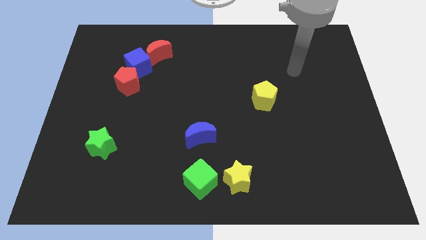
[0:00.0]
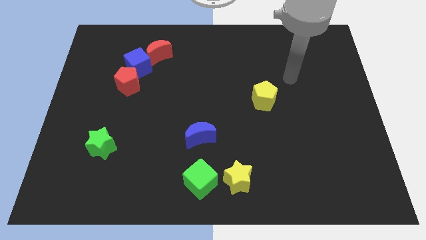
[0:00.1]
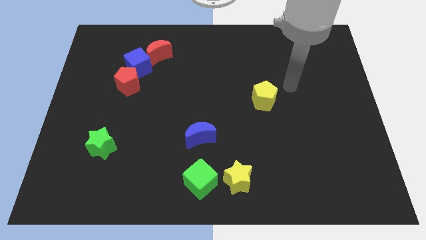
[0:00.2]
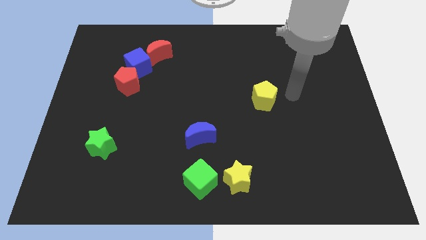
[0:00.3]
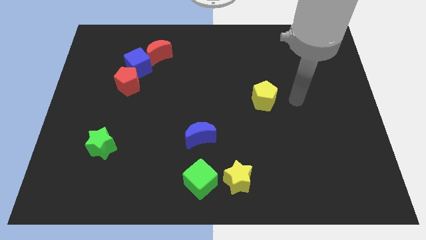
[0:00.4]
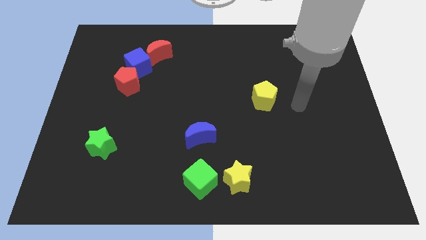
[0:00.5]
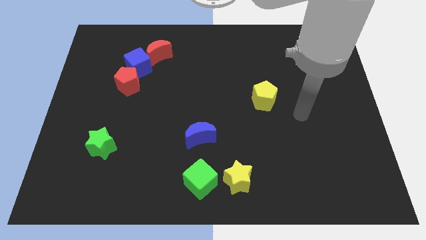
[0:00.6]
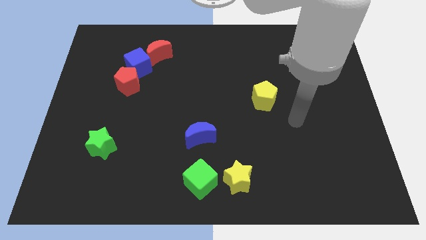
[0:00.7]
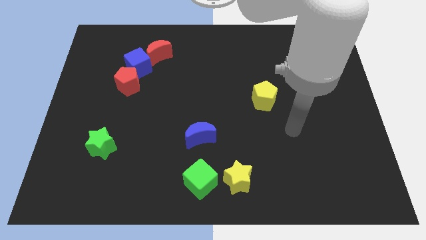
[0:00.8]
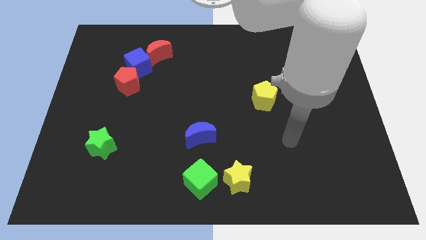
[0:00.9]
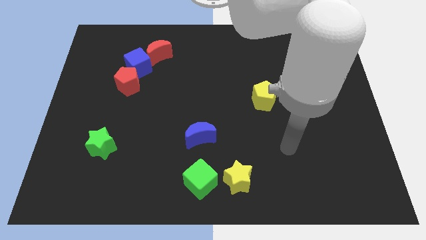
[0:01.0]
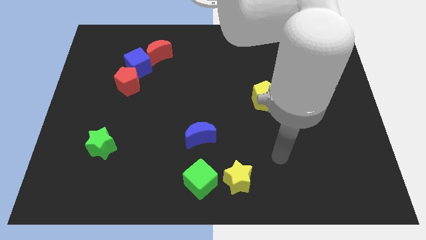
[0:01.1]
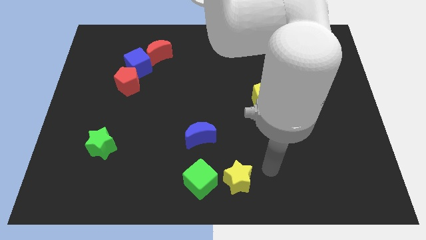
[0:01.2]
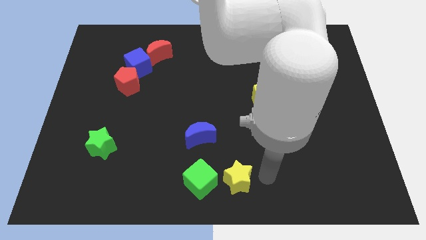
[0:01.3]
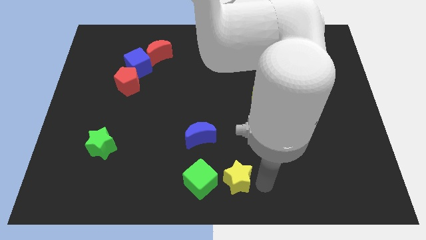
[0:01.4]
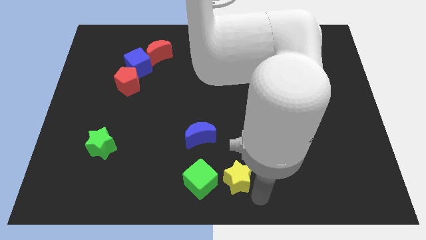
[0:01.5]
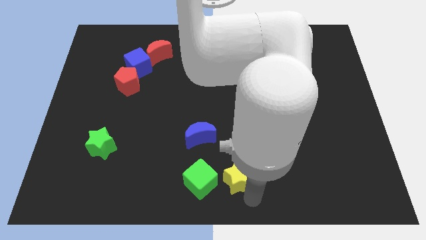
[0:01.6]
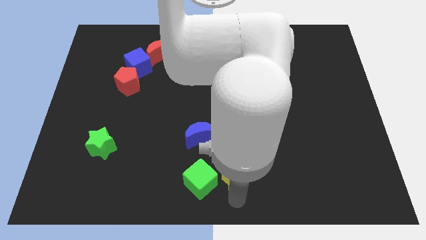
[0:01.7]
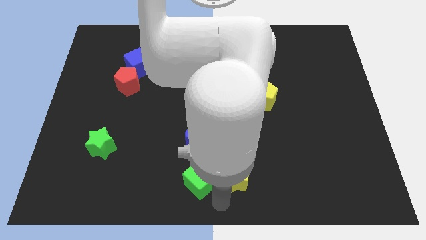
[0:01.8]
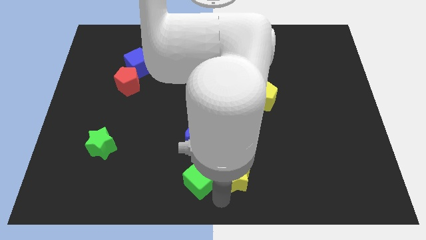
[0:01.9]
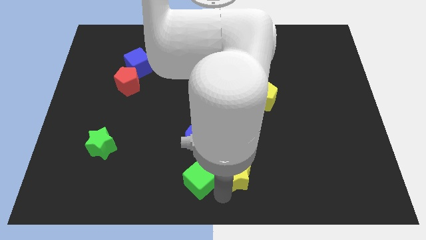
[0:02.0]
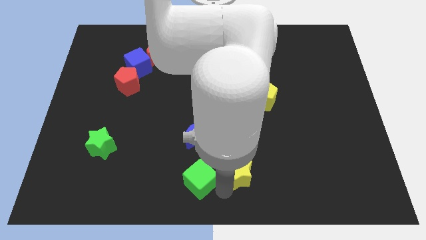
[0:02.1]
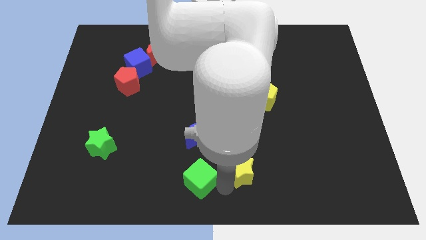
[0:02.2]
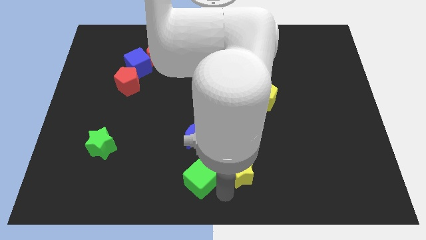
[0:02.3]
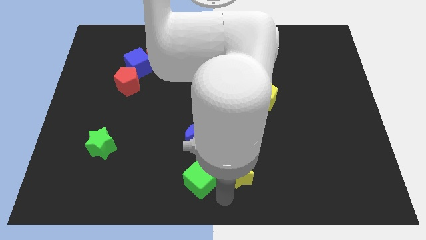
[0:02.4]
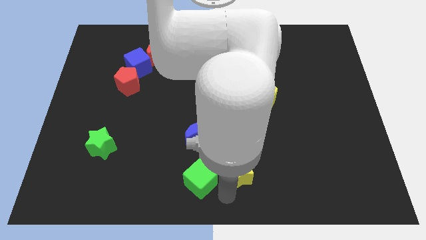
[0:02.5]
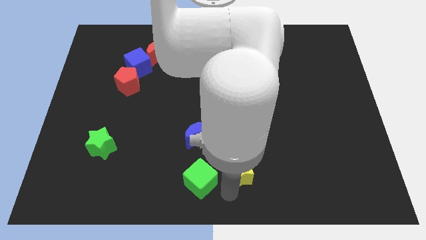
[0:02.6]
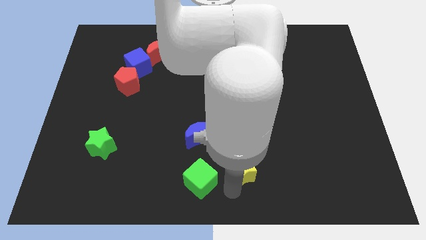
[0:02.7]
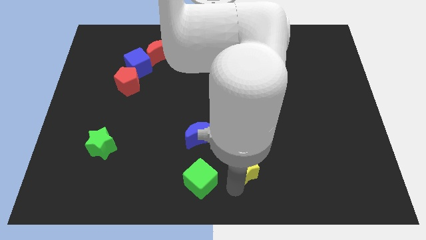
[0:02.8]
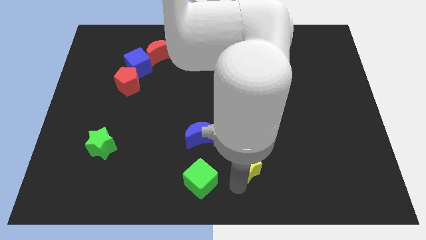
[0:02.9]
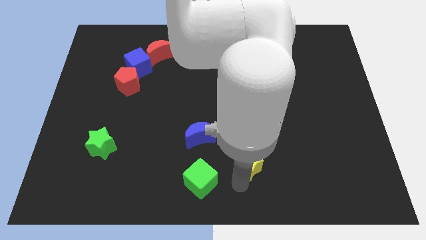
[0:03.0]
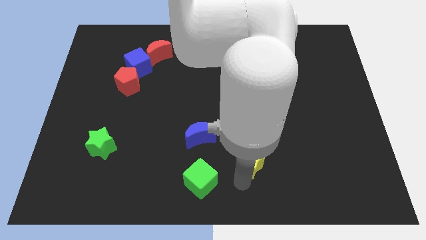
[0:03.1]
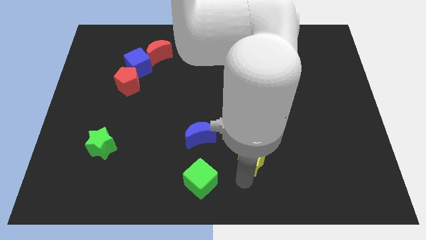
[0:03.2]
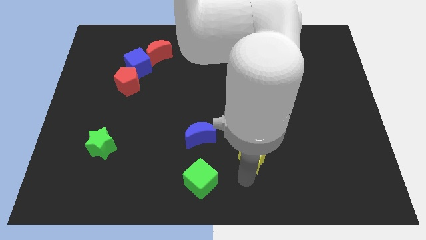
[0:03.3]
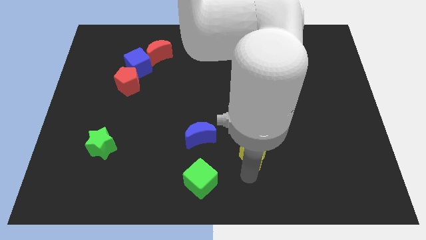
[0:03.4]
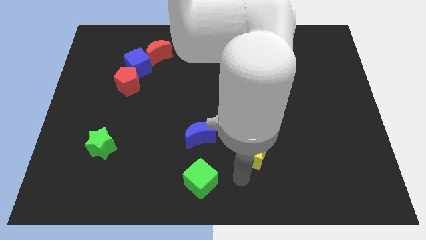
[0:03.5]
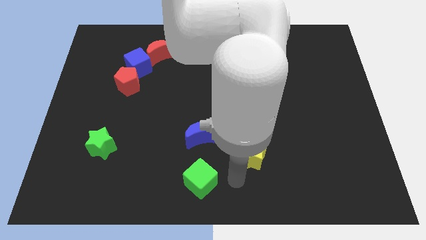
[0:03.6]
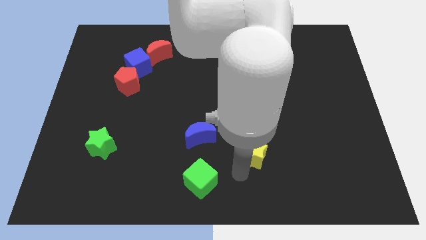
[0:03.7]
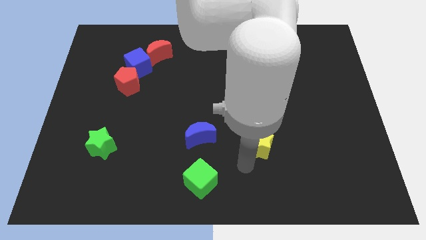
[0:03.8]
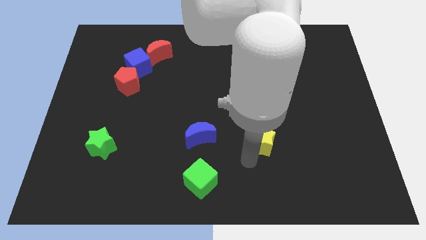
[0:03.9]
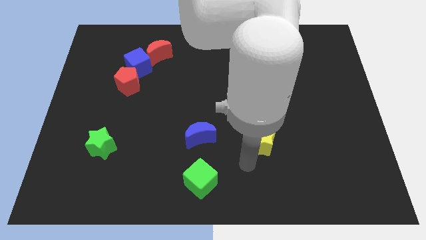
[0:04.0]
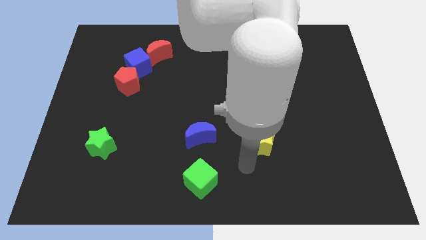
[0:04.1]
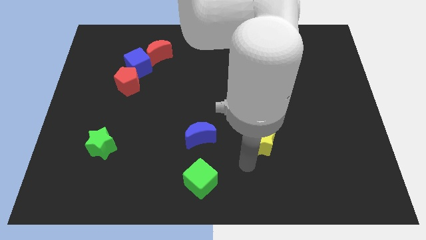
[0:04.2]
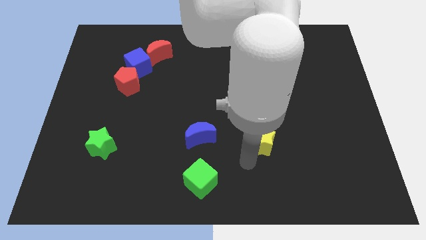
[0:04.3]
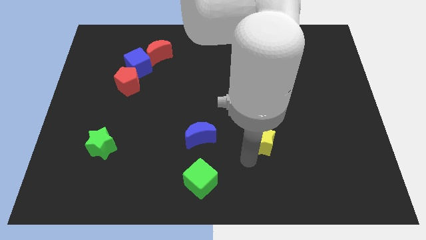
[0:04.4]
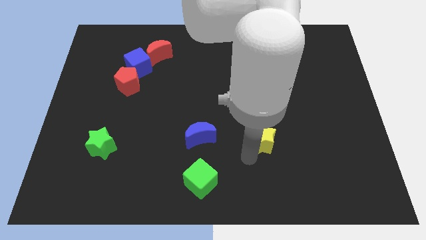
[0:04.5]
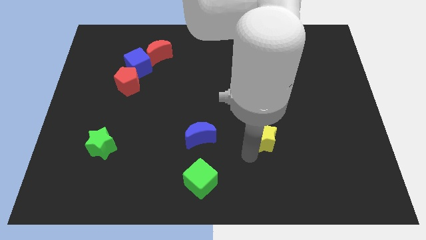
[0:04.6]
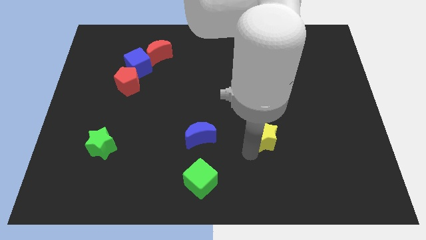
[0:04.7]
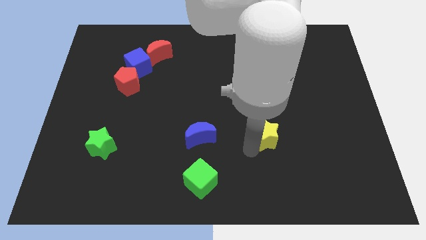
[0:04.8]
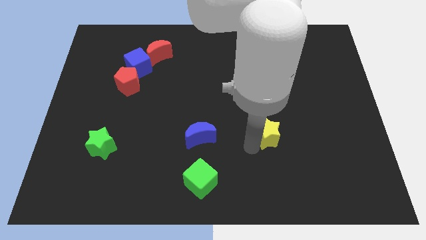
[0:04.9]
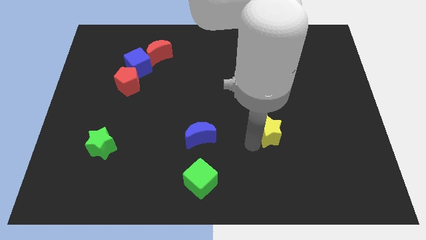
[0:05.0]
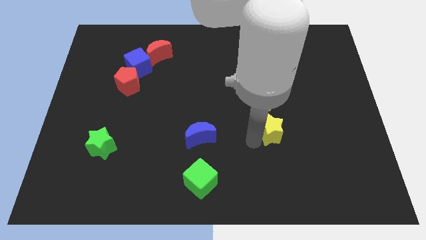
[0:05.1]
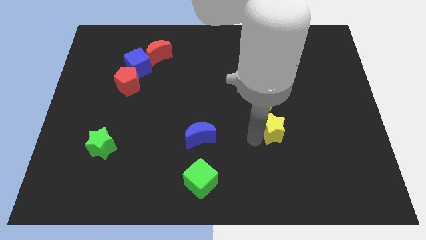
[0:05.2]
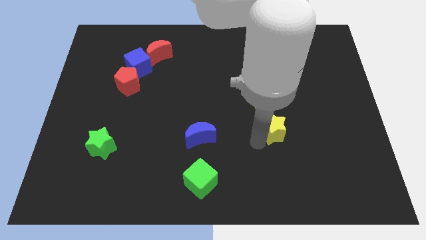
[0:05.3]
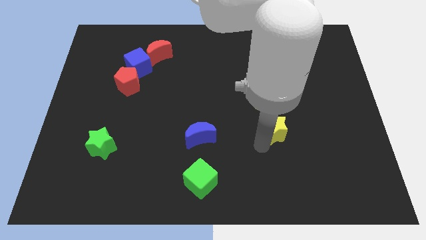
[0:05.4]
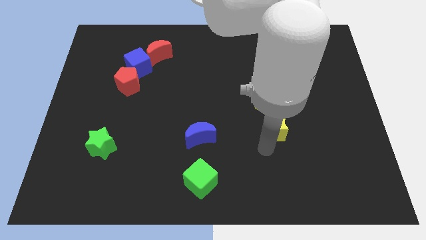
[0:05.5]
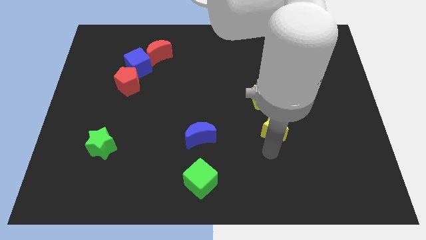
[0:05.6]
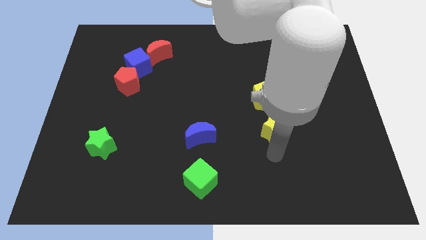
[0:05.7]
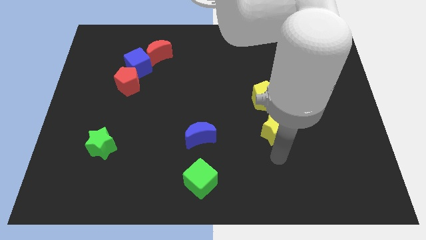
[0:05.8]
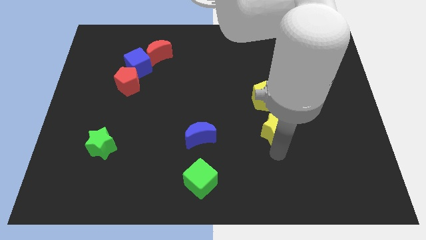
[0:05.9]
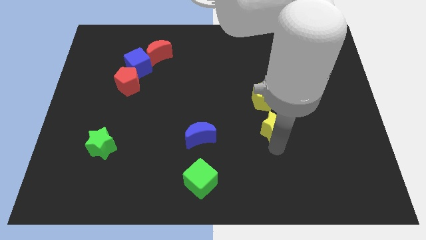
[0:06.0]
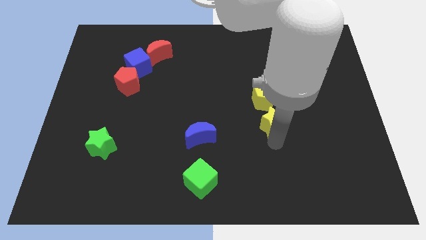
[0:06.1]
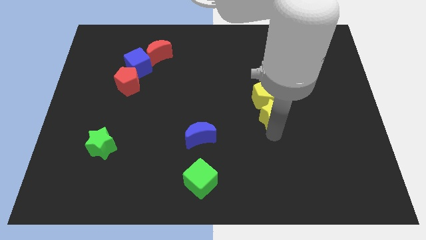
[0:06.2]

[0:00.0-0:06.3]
slide the yellow star to the yellow pentagon

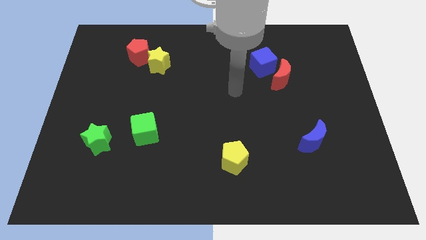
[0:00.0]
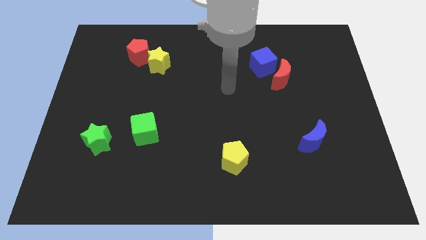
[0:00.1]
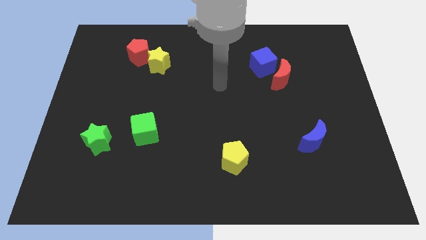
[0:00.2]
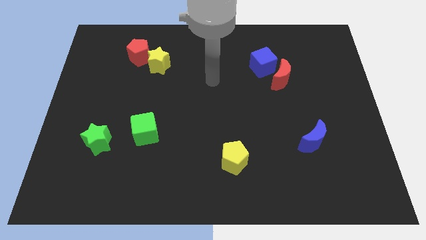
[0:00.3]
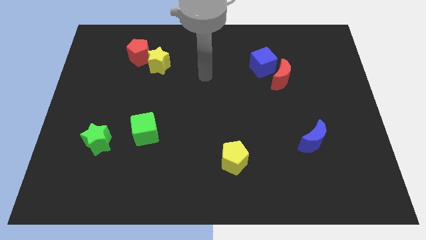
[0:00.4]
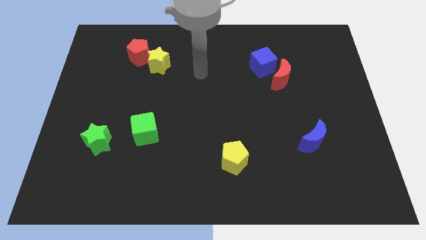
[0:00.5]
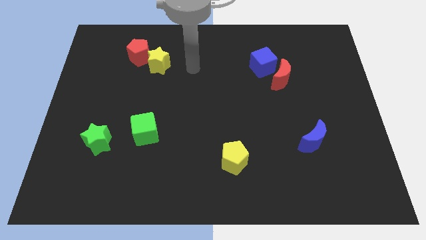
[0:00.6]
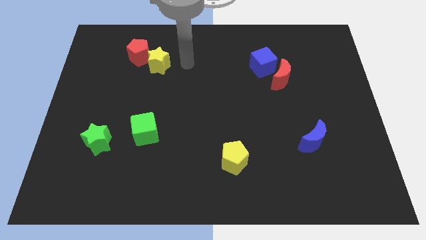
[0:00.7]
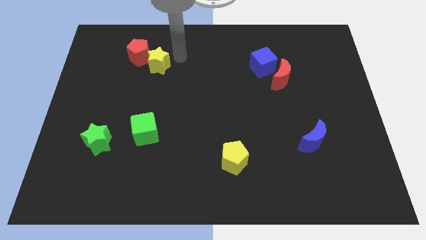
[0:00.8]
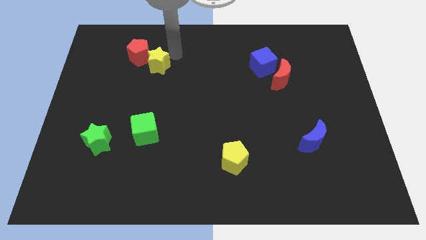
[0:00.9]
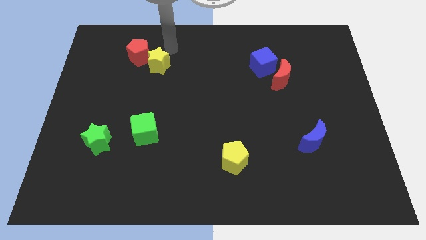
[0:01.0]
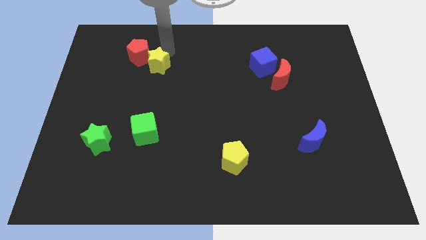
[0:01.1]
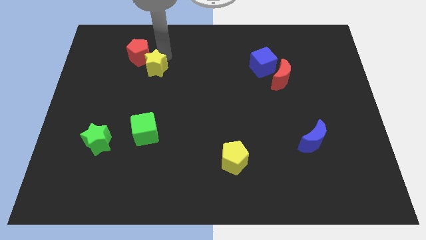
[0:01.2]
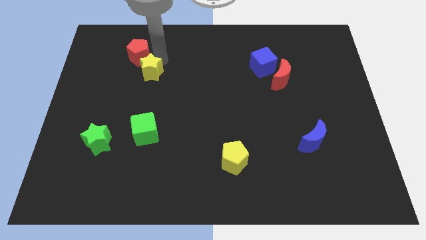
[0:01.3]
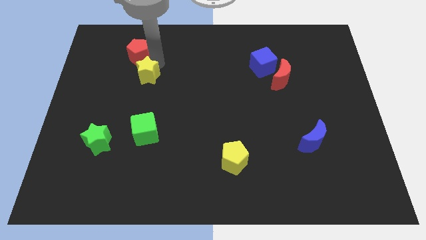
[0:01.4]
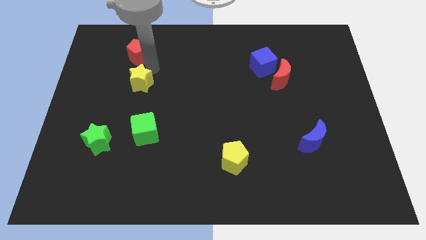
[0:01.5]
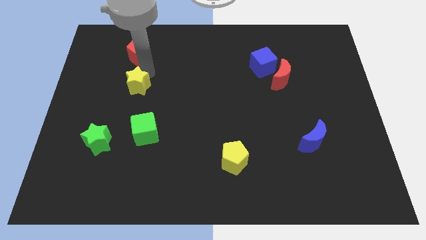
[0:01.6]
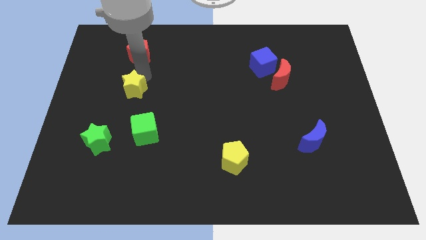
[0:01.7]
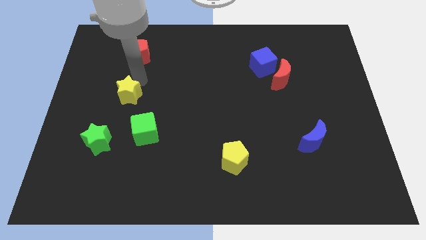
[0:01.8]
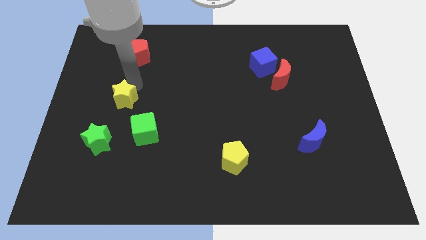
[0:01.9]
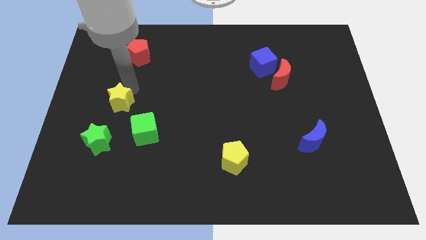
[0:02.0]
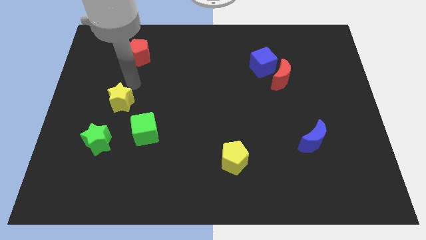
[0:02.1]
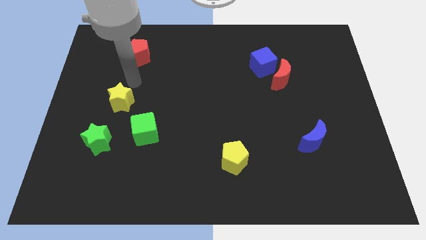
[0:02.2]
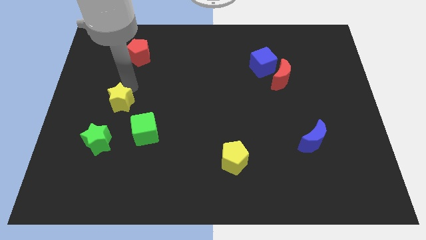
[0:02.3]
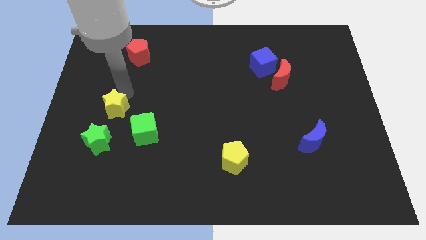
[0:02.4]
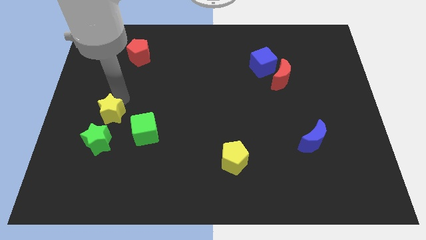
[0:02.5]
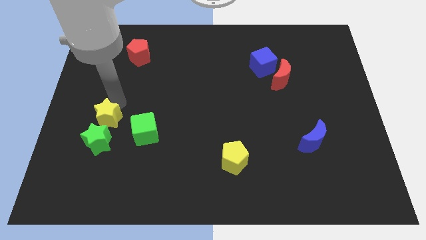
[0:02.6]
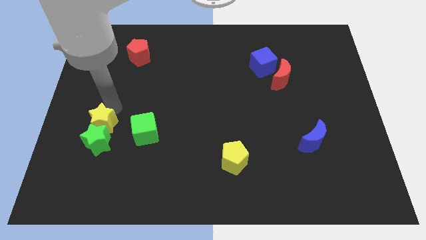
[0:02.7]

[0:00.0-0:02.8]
move the yellow star to the green star
